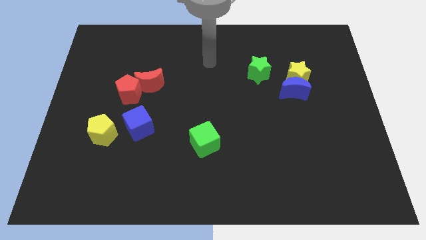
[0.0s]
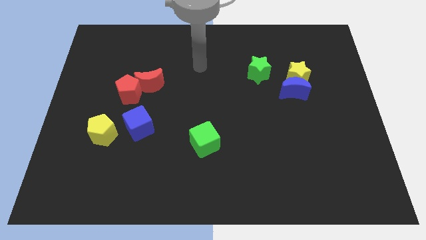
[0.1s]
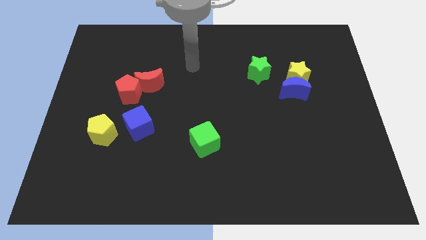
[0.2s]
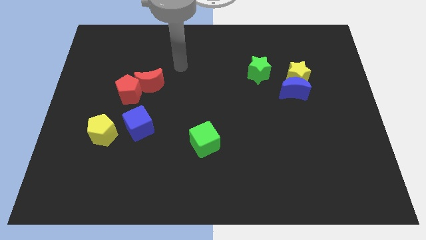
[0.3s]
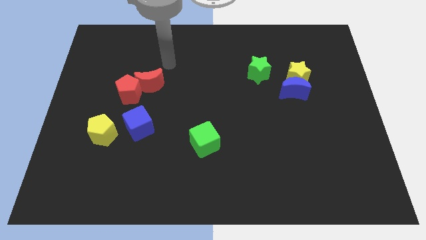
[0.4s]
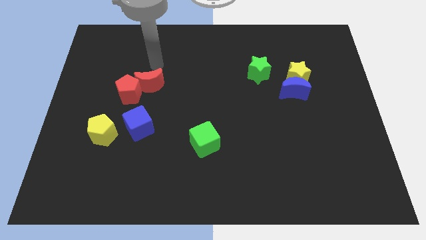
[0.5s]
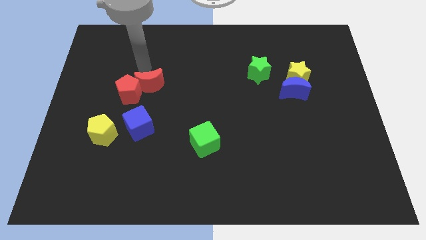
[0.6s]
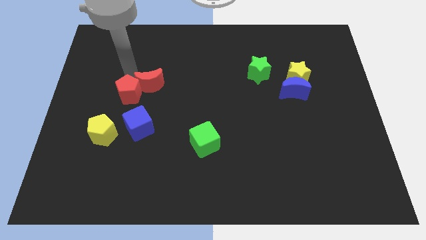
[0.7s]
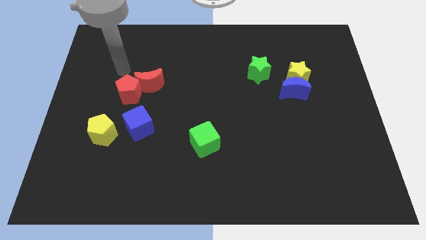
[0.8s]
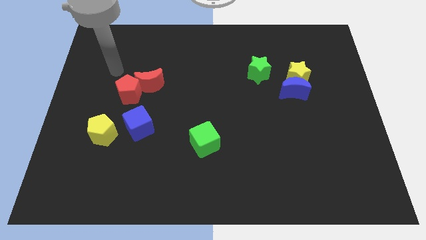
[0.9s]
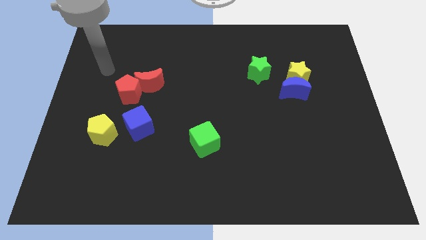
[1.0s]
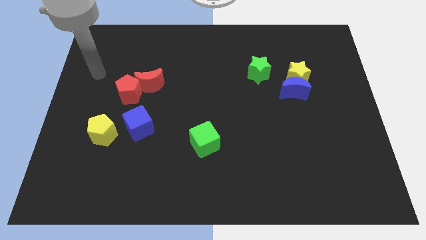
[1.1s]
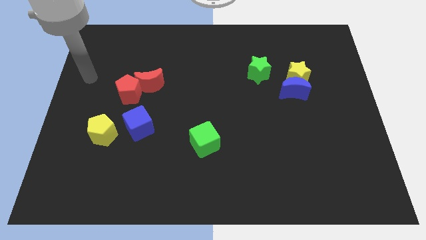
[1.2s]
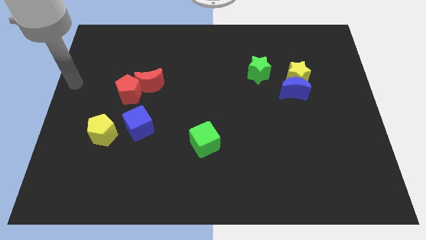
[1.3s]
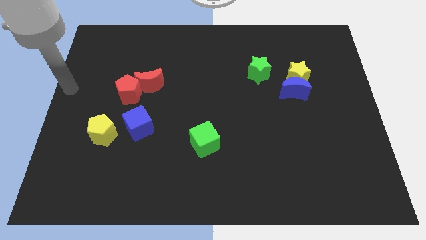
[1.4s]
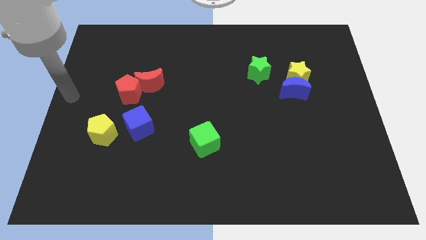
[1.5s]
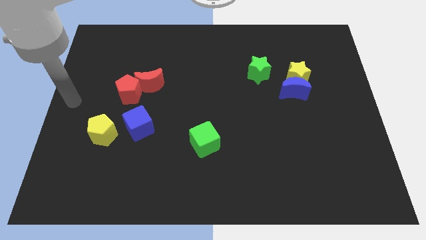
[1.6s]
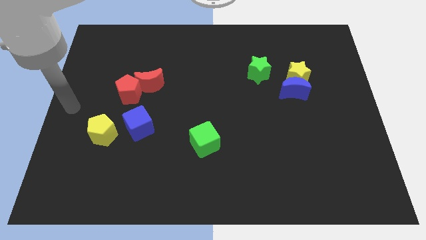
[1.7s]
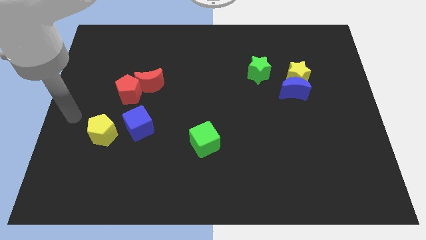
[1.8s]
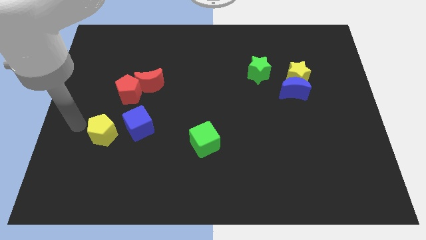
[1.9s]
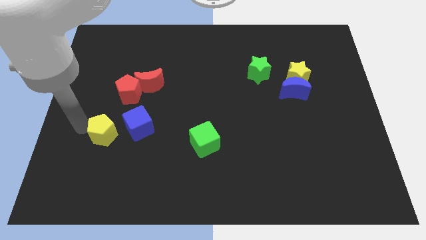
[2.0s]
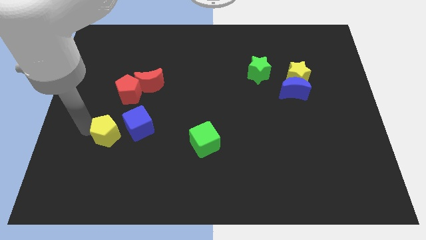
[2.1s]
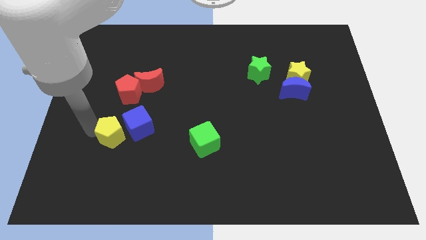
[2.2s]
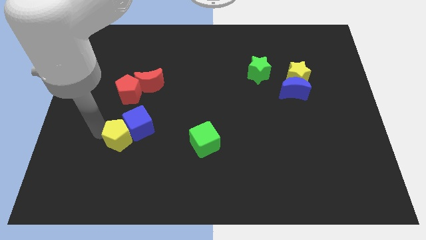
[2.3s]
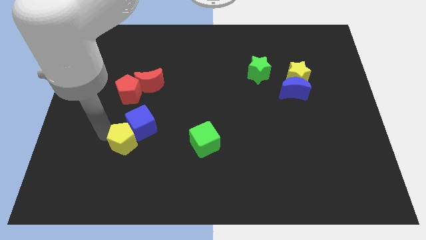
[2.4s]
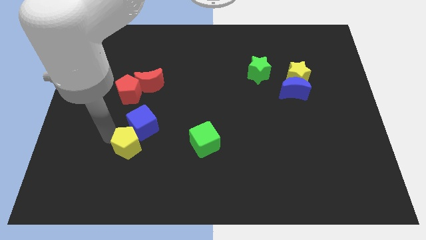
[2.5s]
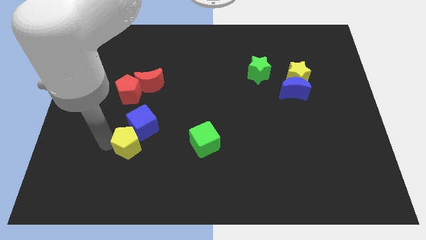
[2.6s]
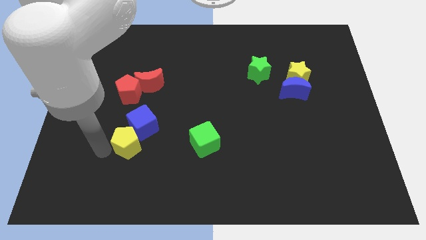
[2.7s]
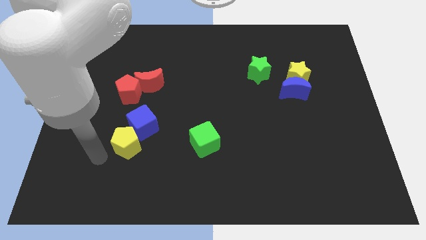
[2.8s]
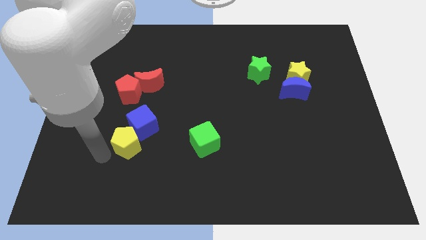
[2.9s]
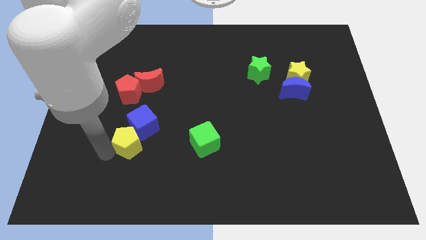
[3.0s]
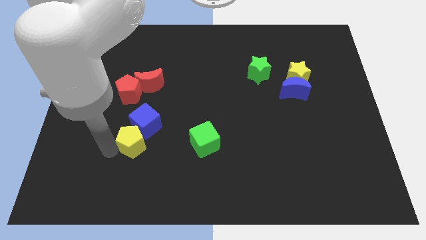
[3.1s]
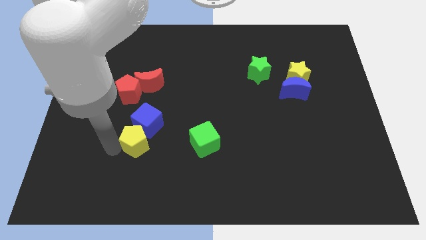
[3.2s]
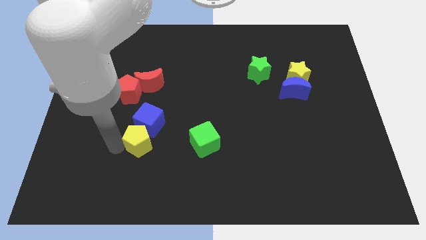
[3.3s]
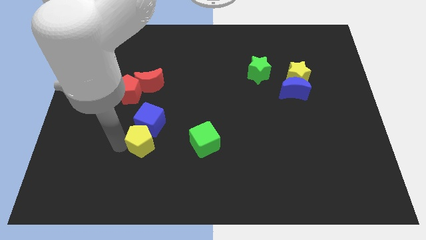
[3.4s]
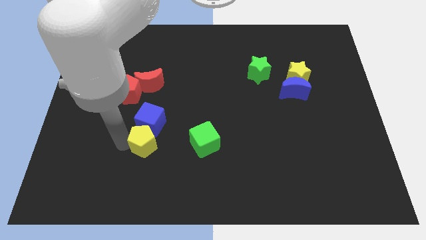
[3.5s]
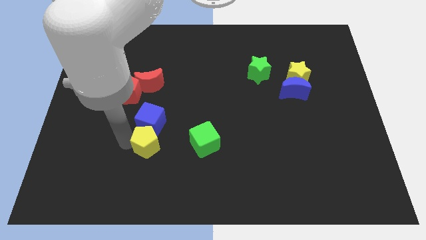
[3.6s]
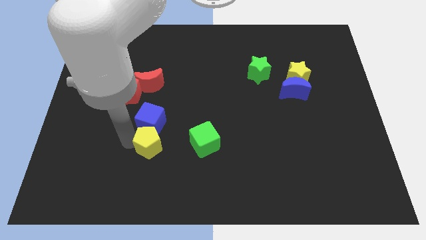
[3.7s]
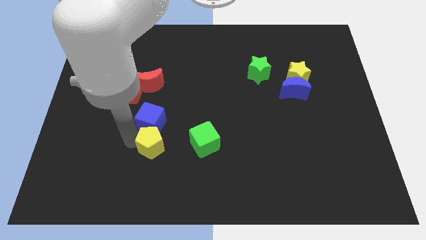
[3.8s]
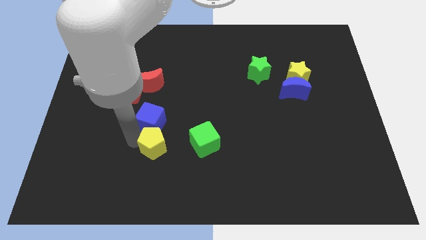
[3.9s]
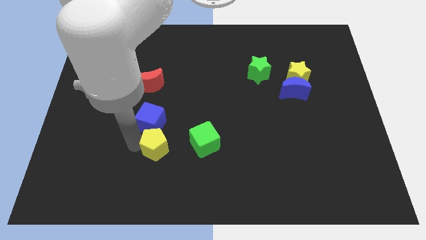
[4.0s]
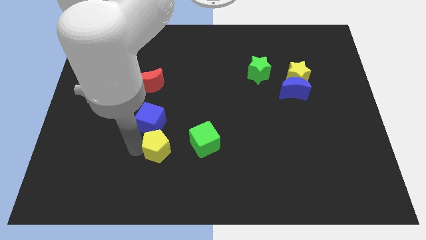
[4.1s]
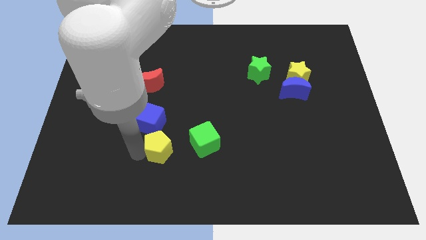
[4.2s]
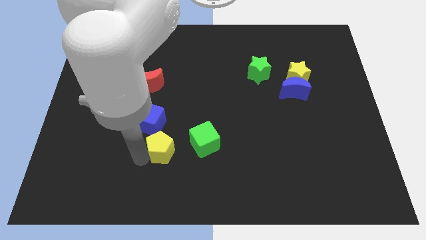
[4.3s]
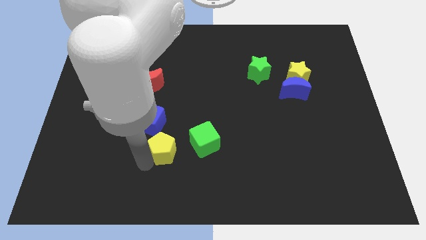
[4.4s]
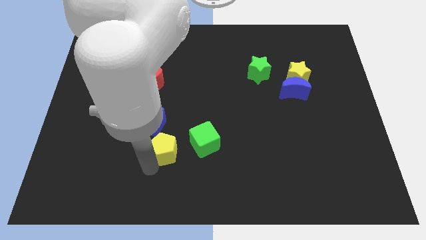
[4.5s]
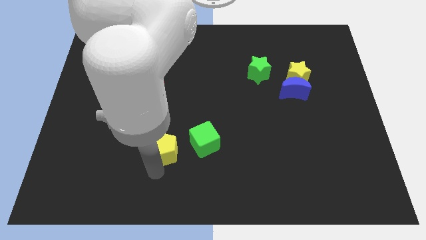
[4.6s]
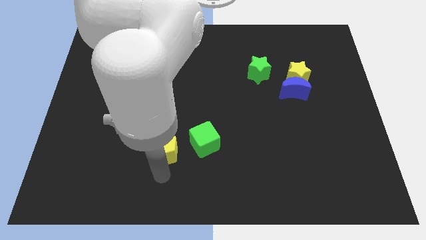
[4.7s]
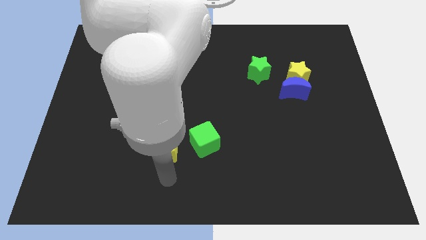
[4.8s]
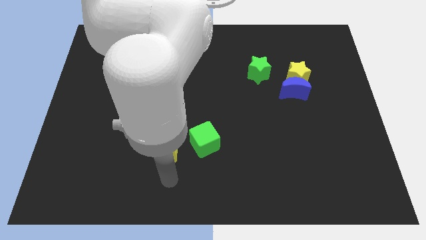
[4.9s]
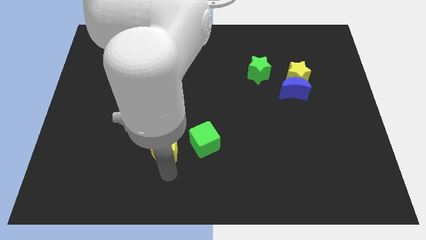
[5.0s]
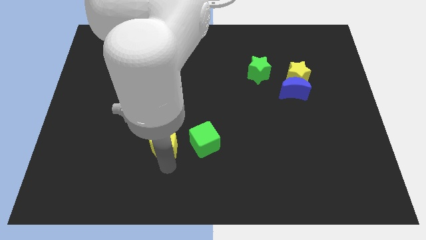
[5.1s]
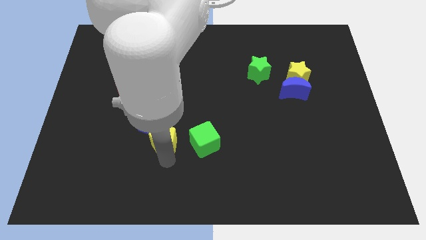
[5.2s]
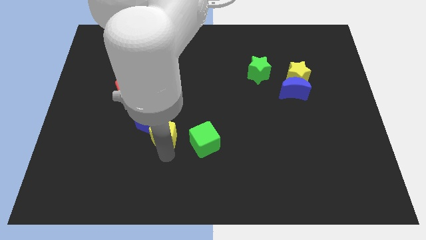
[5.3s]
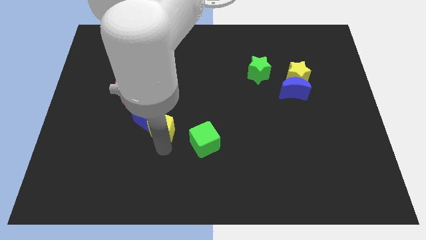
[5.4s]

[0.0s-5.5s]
push the yellow pentagon to the top left side of the green cube

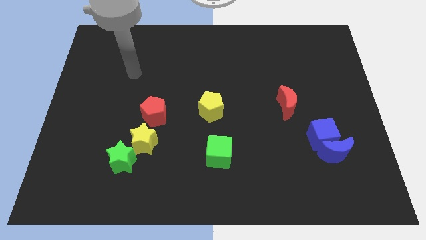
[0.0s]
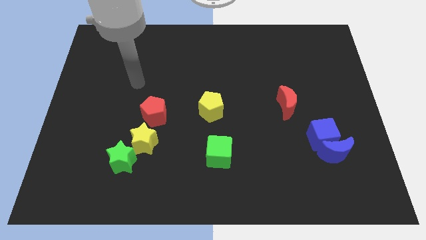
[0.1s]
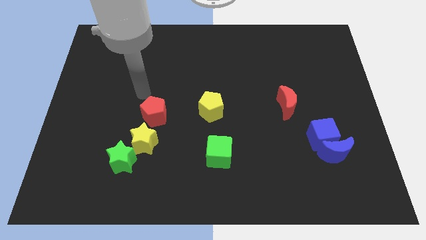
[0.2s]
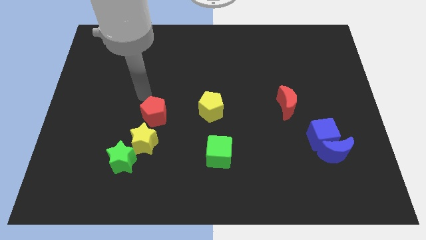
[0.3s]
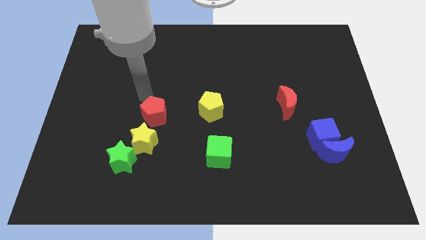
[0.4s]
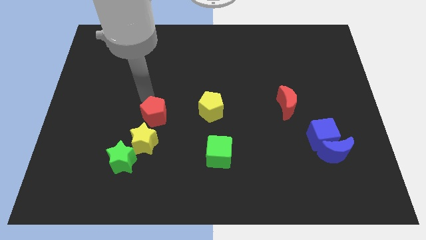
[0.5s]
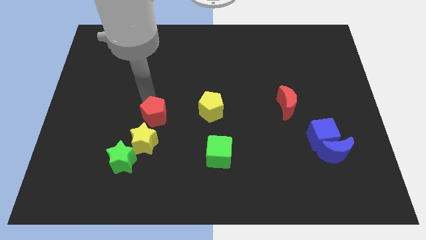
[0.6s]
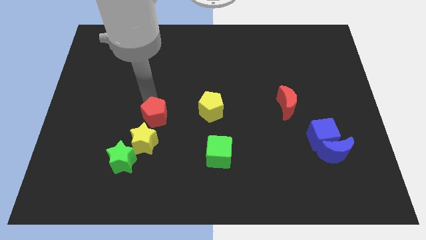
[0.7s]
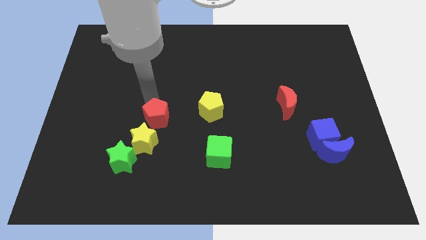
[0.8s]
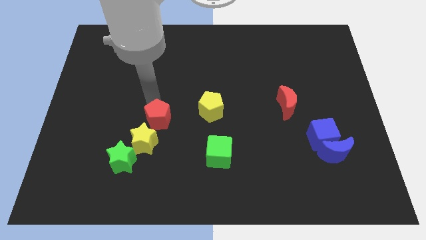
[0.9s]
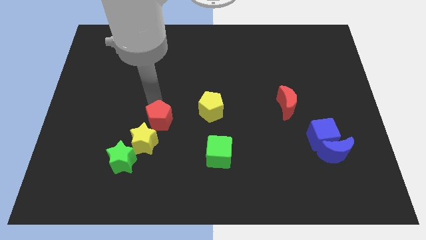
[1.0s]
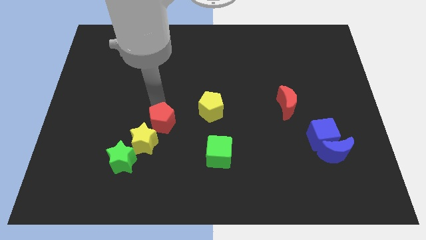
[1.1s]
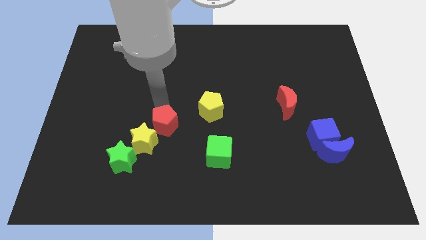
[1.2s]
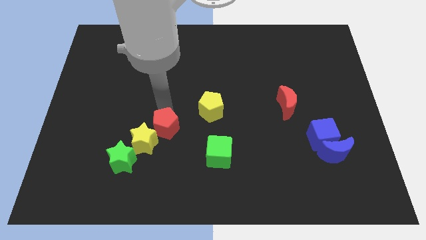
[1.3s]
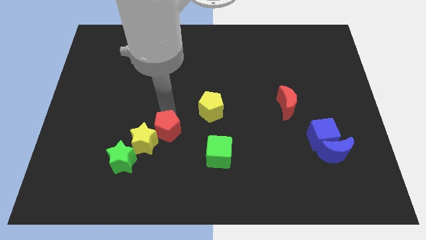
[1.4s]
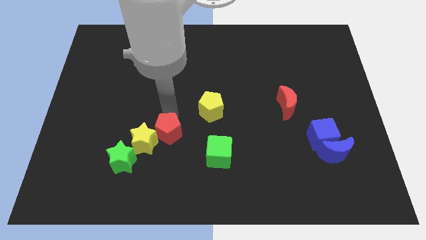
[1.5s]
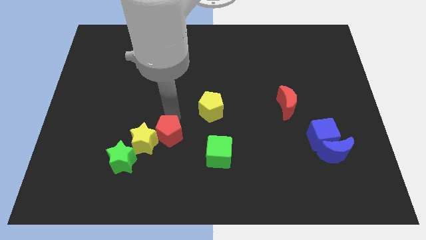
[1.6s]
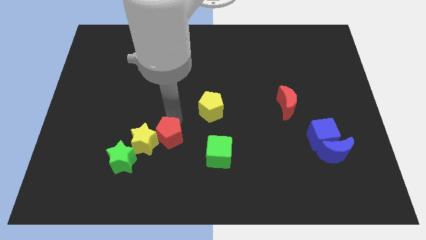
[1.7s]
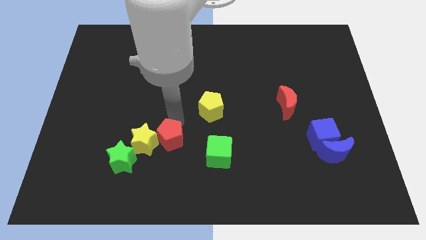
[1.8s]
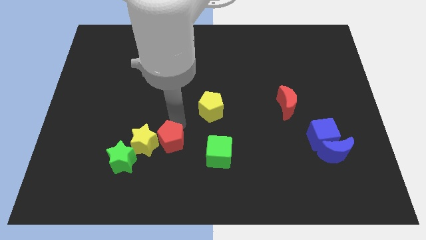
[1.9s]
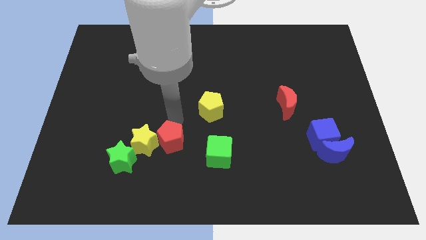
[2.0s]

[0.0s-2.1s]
put the red pentagon just right of the green star
